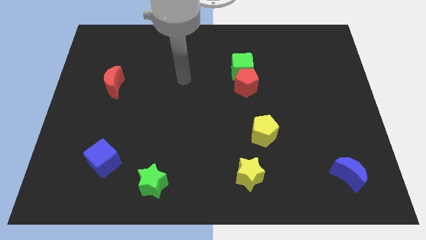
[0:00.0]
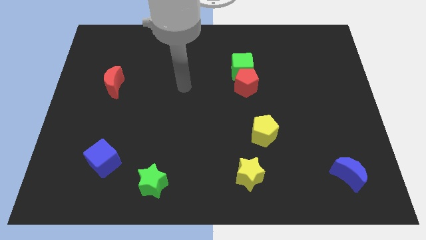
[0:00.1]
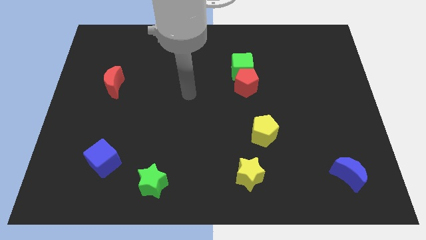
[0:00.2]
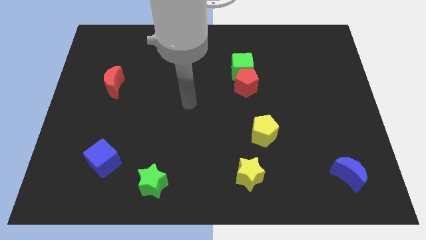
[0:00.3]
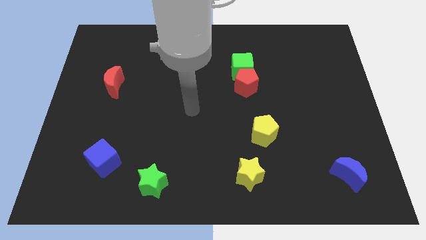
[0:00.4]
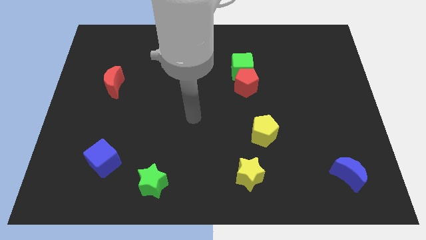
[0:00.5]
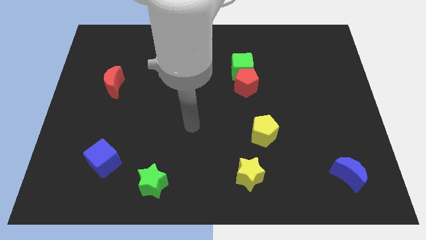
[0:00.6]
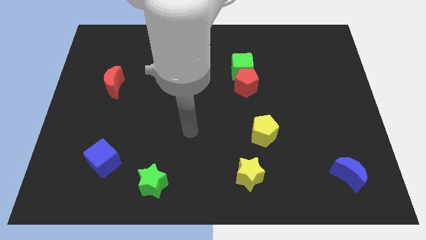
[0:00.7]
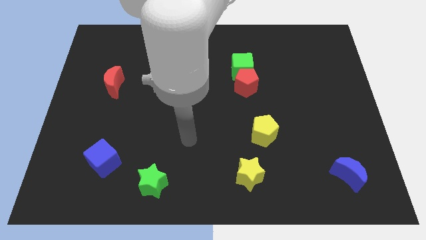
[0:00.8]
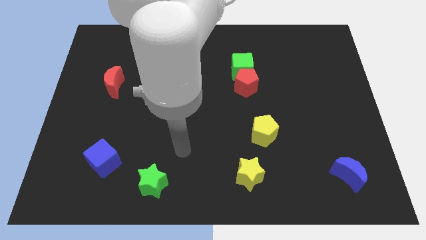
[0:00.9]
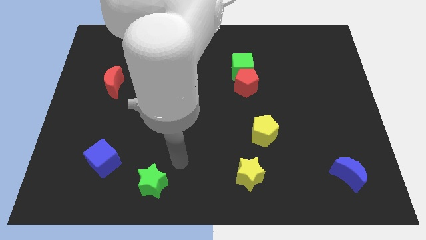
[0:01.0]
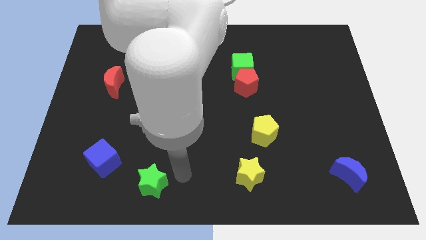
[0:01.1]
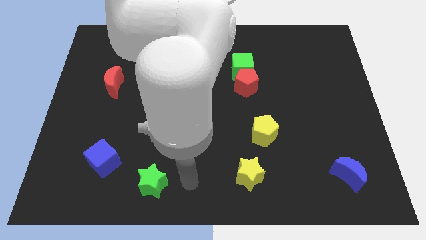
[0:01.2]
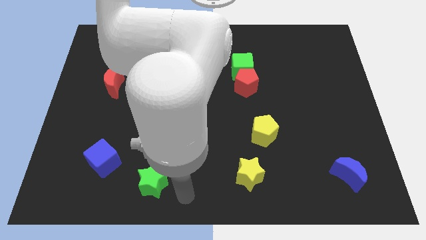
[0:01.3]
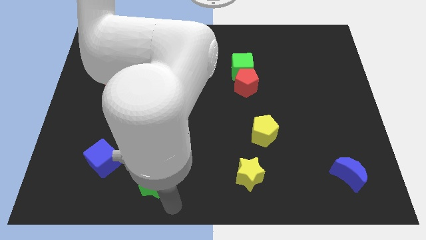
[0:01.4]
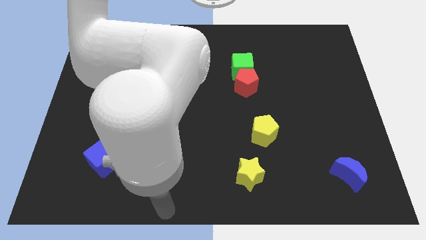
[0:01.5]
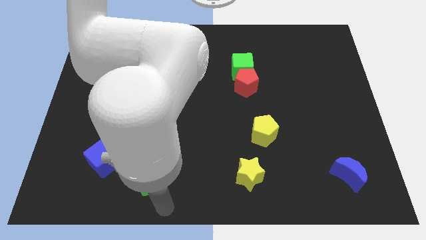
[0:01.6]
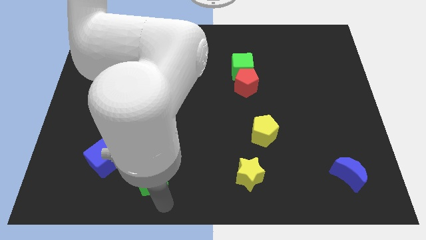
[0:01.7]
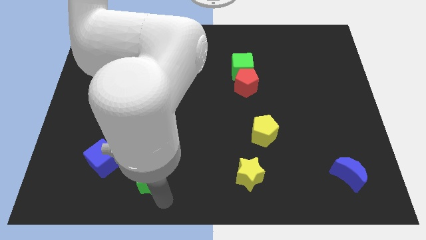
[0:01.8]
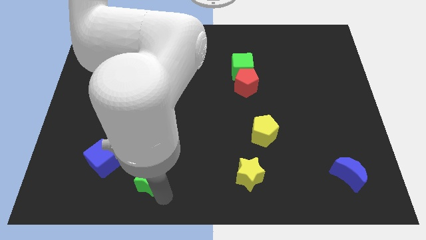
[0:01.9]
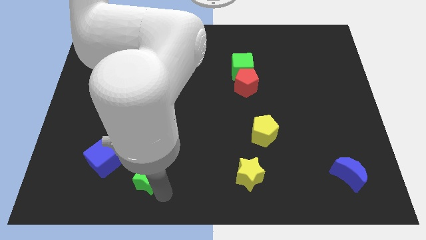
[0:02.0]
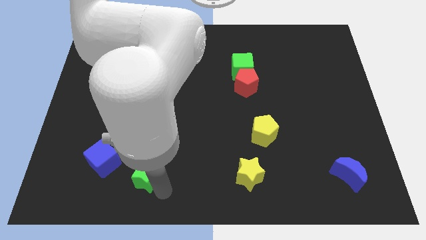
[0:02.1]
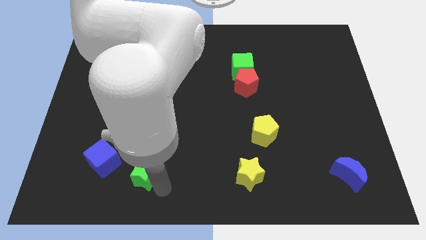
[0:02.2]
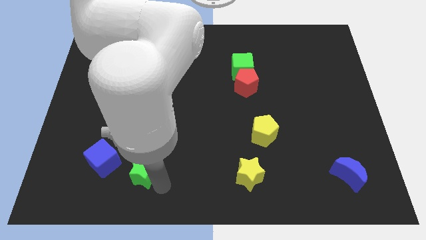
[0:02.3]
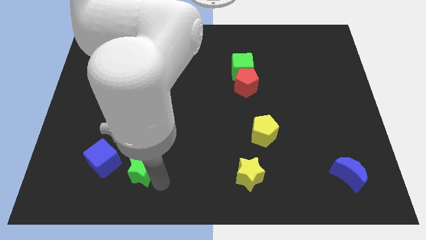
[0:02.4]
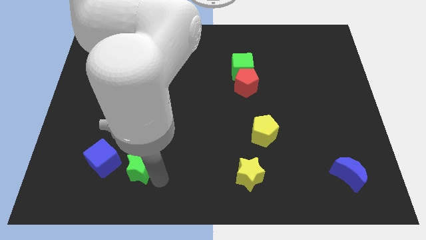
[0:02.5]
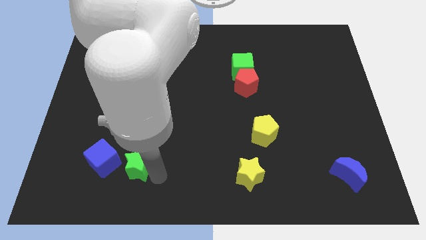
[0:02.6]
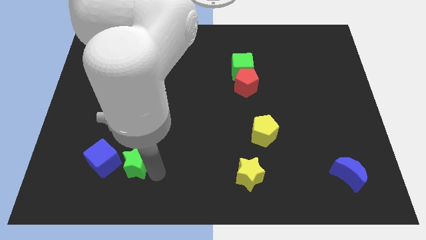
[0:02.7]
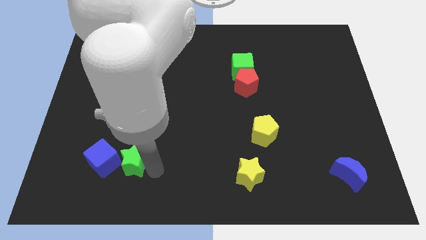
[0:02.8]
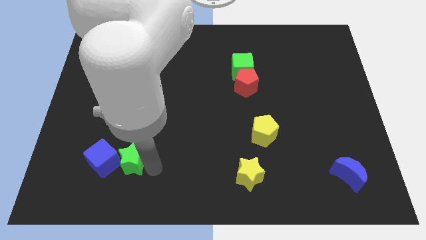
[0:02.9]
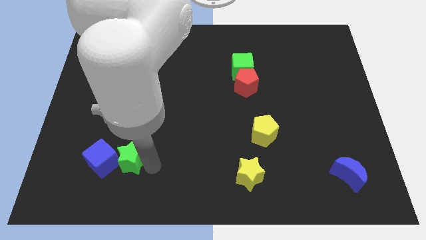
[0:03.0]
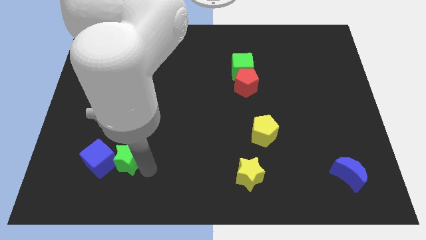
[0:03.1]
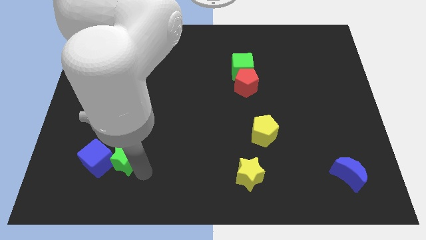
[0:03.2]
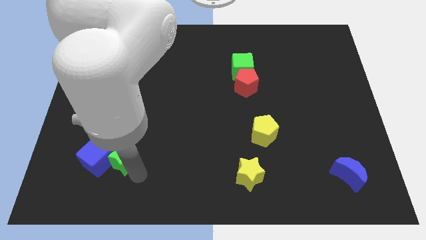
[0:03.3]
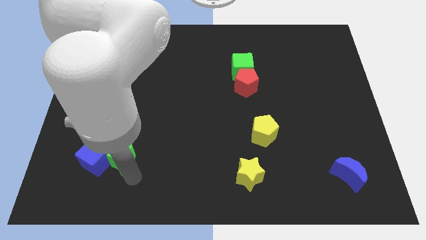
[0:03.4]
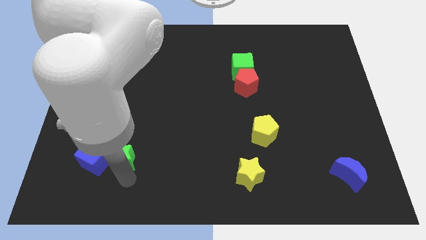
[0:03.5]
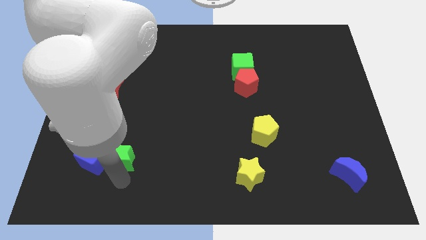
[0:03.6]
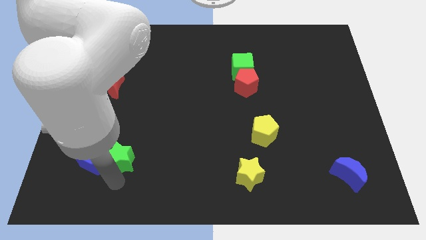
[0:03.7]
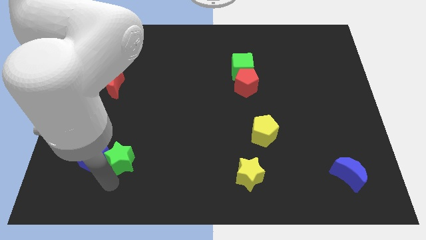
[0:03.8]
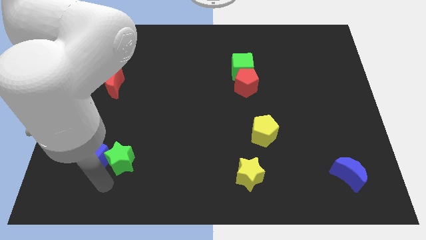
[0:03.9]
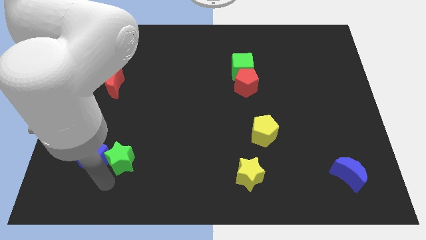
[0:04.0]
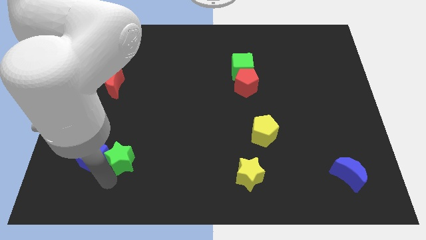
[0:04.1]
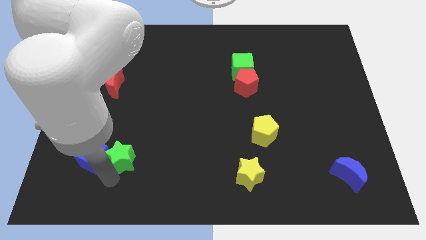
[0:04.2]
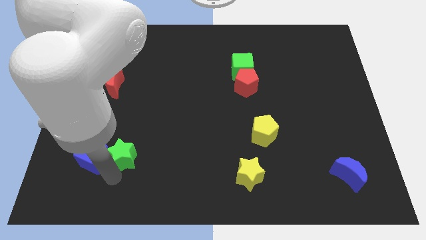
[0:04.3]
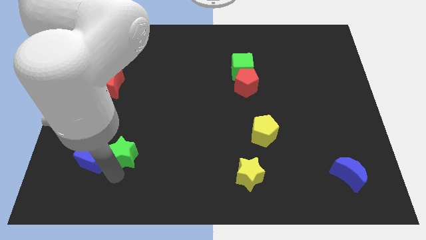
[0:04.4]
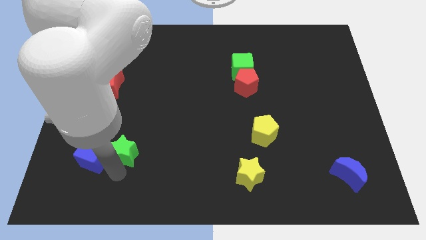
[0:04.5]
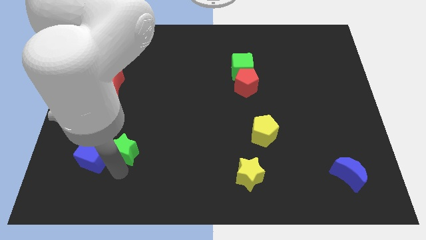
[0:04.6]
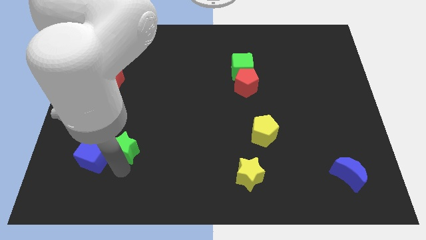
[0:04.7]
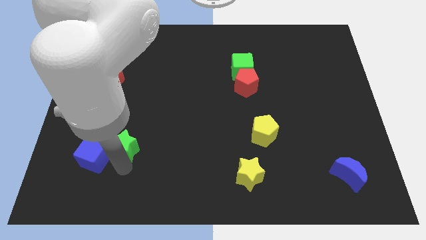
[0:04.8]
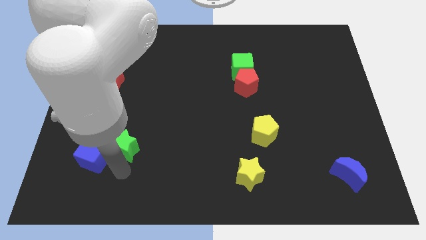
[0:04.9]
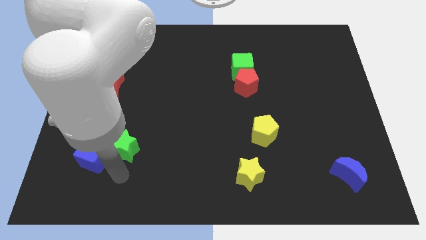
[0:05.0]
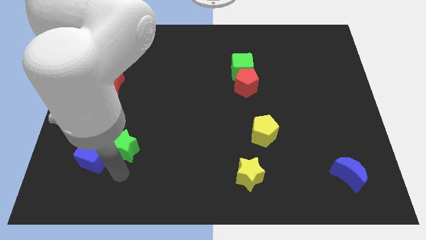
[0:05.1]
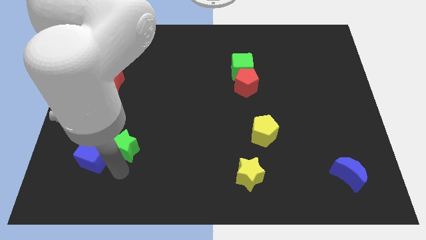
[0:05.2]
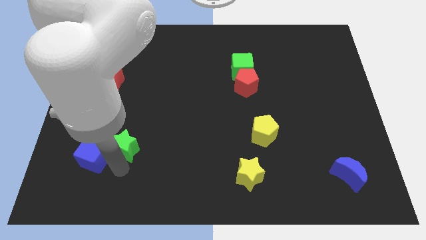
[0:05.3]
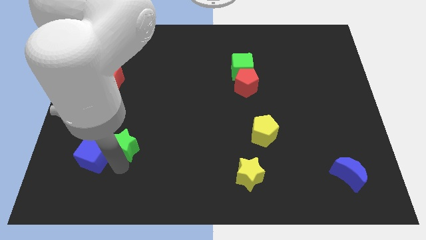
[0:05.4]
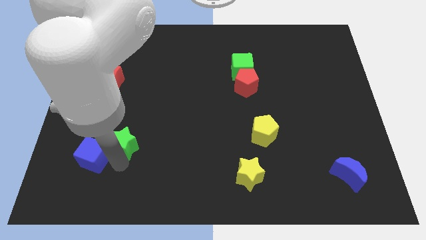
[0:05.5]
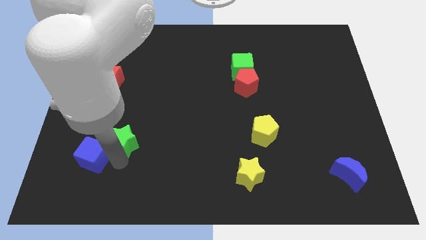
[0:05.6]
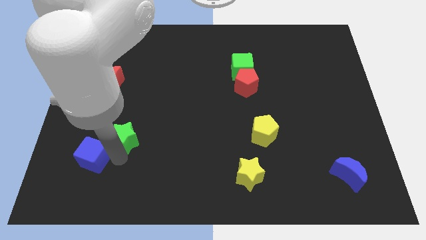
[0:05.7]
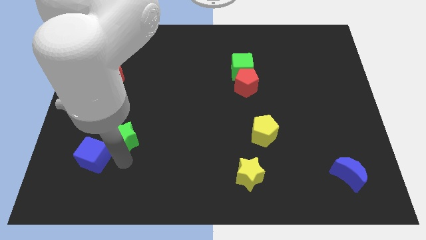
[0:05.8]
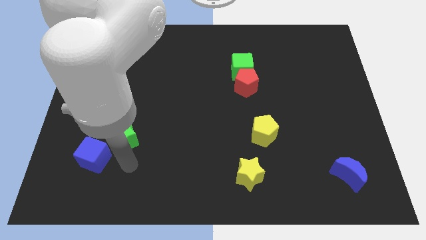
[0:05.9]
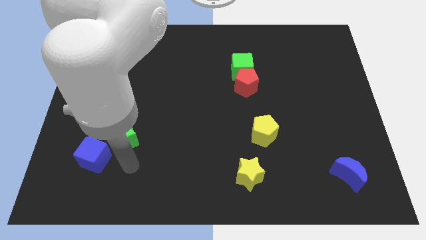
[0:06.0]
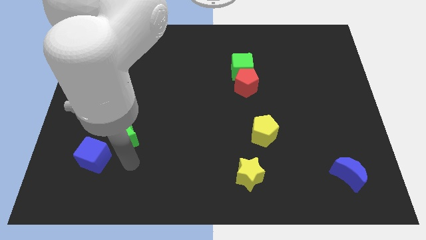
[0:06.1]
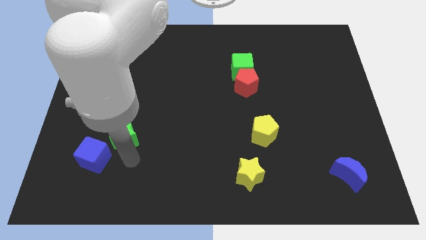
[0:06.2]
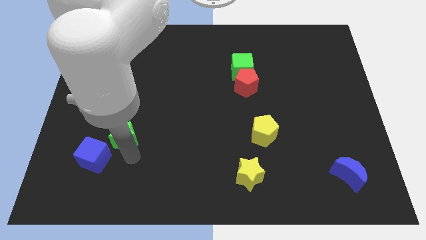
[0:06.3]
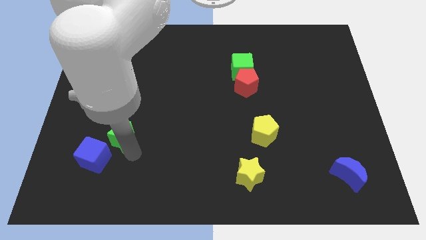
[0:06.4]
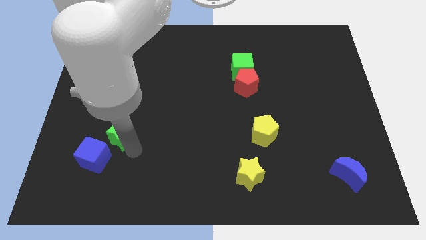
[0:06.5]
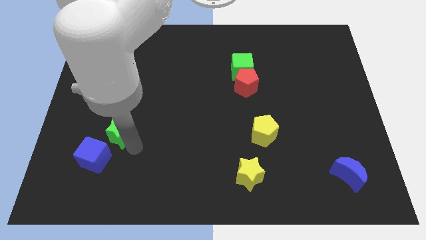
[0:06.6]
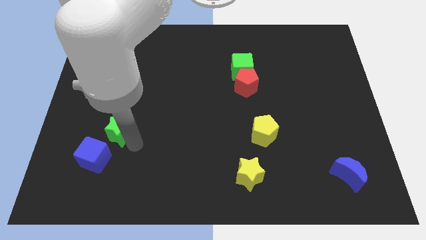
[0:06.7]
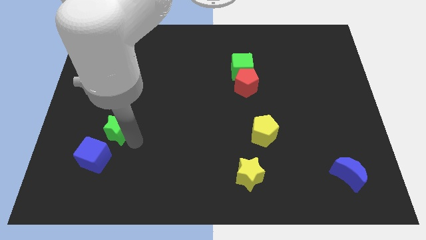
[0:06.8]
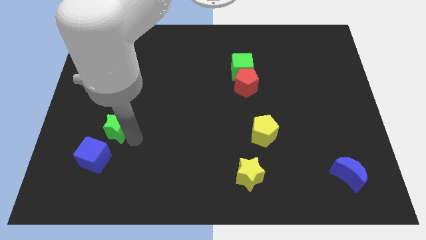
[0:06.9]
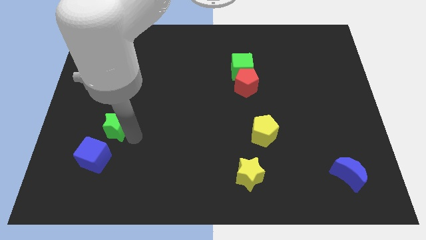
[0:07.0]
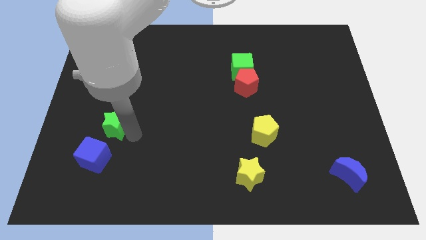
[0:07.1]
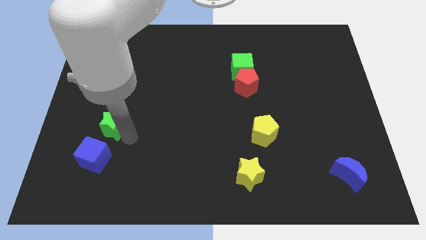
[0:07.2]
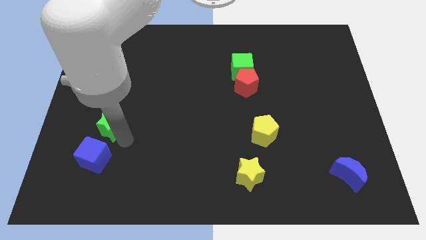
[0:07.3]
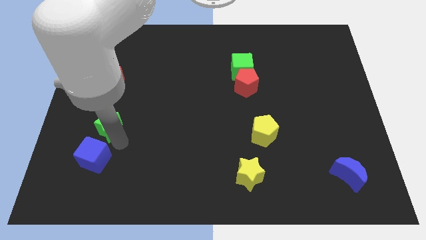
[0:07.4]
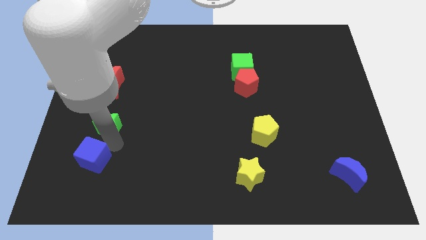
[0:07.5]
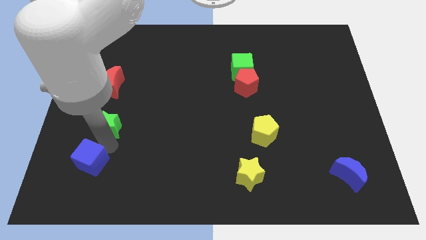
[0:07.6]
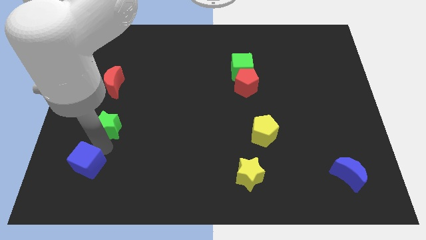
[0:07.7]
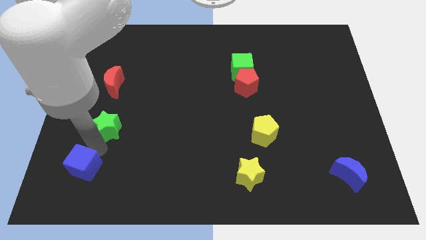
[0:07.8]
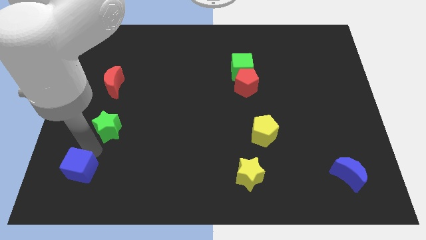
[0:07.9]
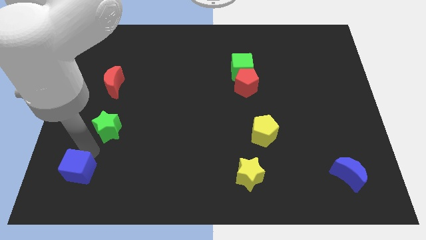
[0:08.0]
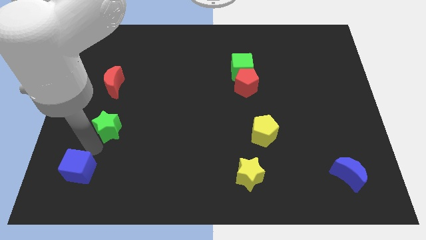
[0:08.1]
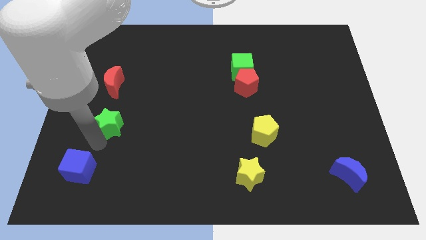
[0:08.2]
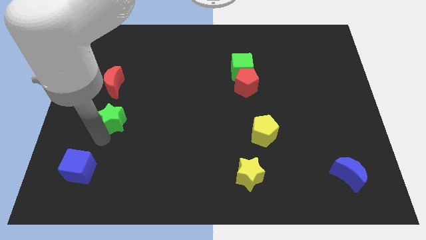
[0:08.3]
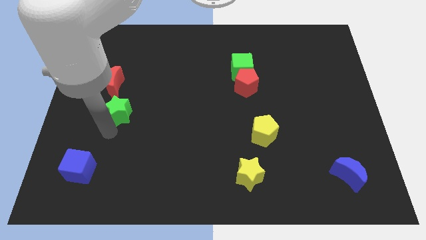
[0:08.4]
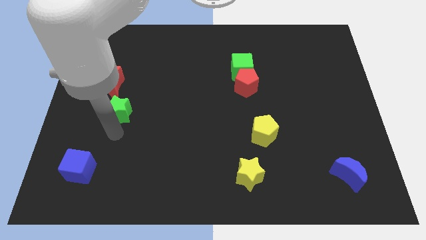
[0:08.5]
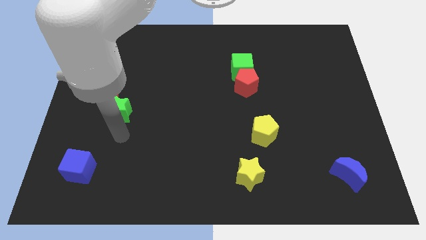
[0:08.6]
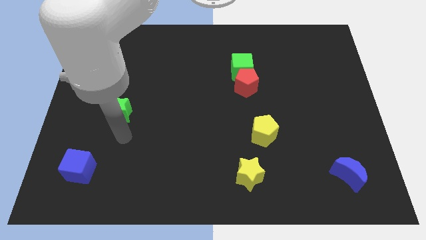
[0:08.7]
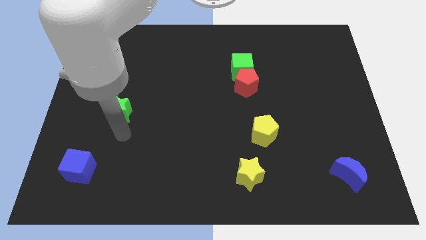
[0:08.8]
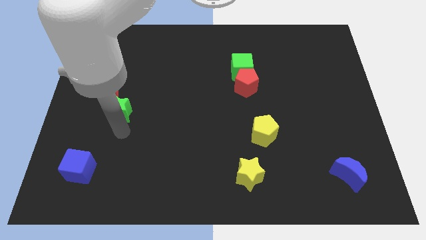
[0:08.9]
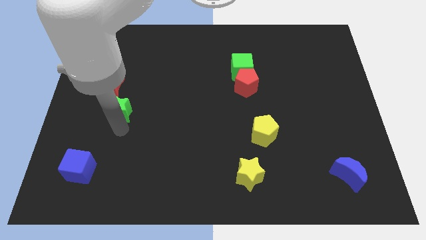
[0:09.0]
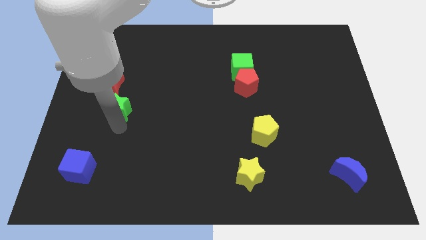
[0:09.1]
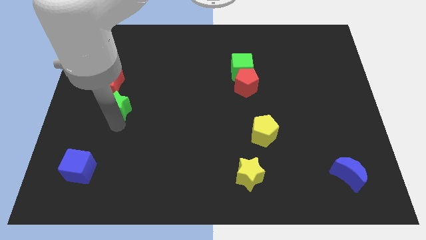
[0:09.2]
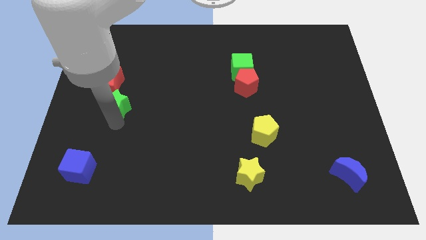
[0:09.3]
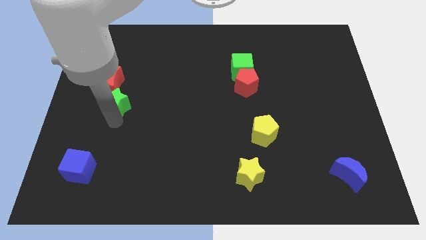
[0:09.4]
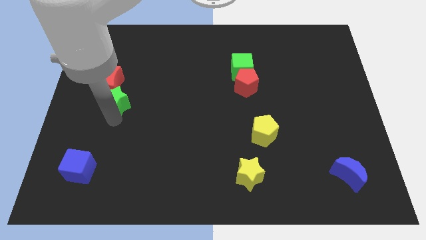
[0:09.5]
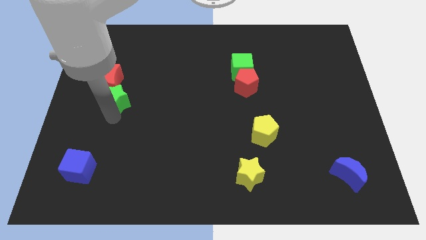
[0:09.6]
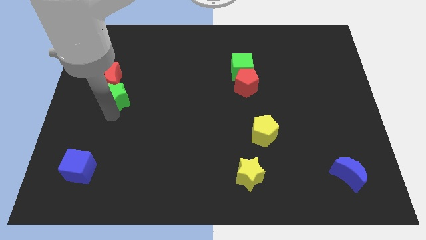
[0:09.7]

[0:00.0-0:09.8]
slide the green star next to the red moon
